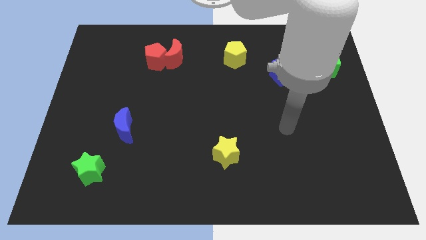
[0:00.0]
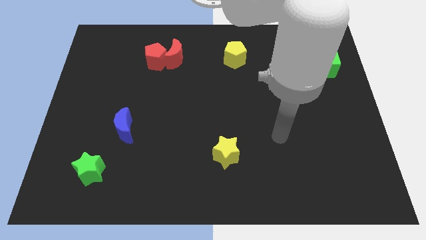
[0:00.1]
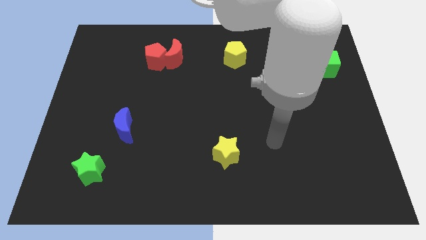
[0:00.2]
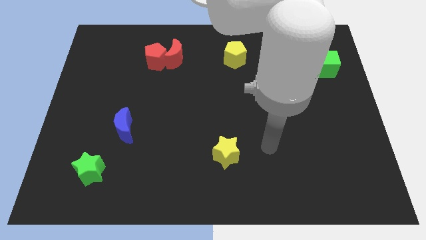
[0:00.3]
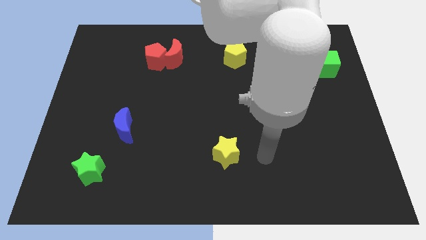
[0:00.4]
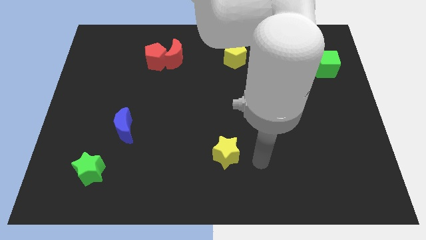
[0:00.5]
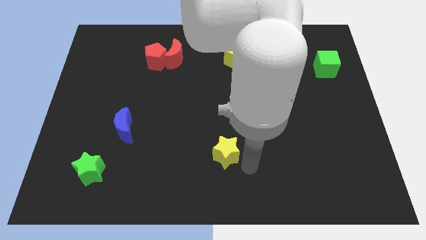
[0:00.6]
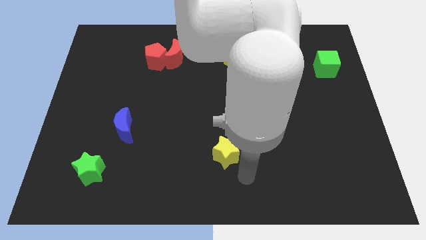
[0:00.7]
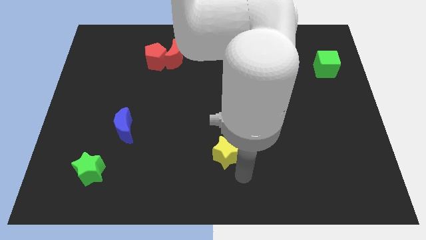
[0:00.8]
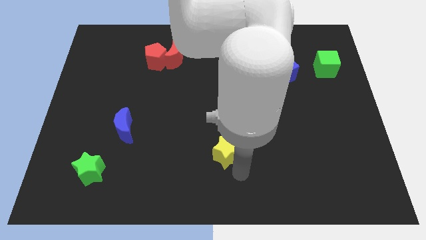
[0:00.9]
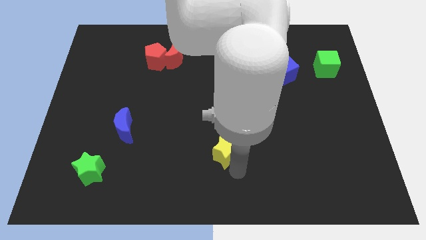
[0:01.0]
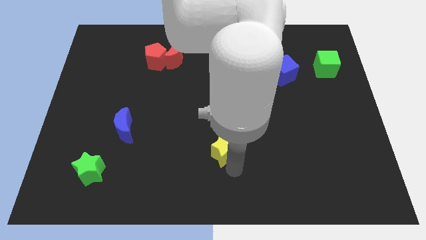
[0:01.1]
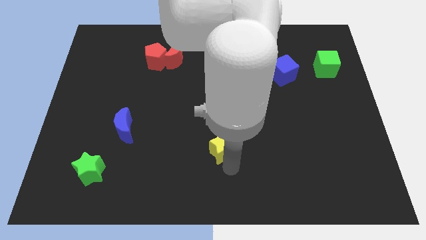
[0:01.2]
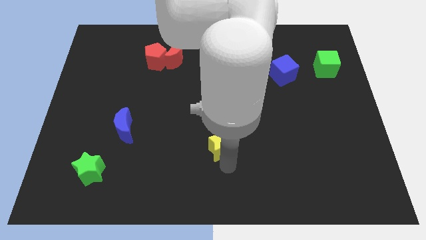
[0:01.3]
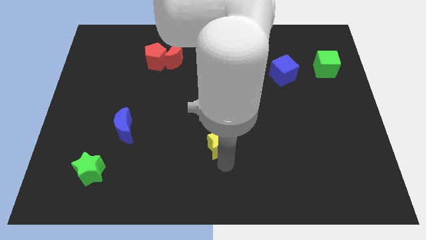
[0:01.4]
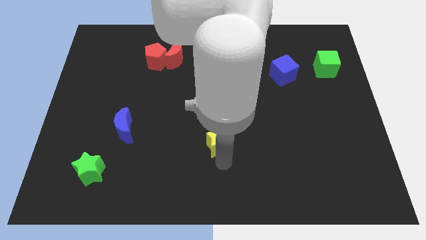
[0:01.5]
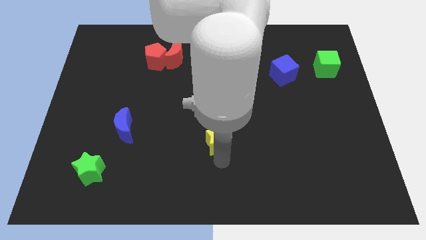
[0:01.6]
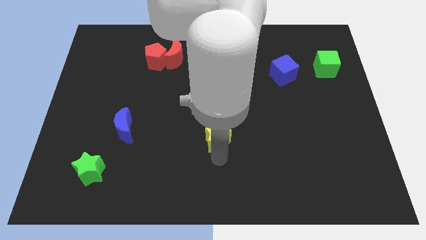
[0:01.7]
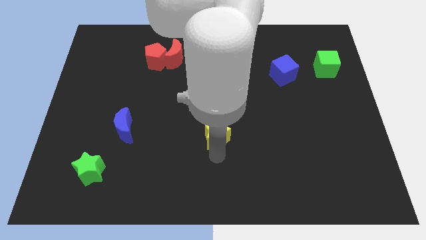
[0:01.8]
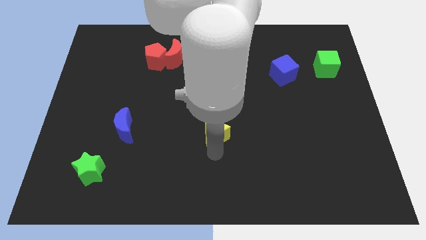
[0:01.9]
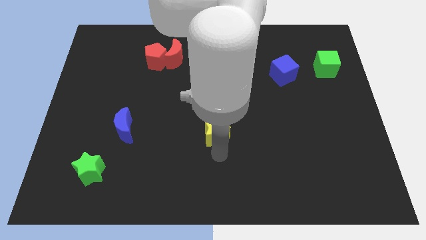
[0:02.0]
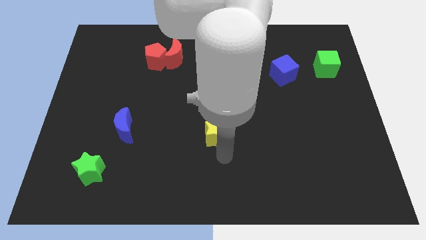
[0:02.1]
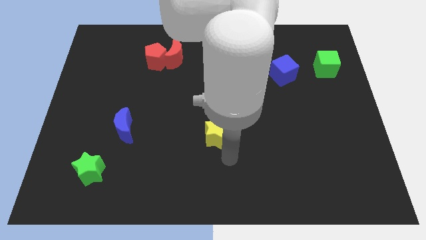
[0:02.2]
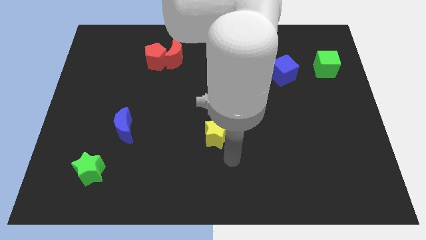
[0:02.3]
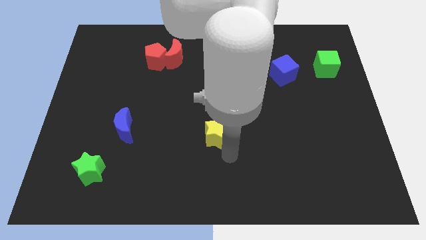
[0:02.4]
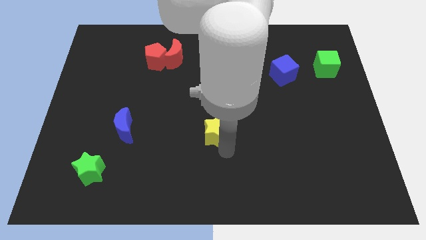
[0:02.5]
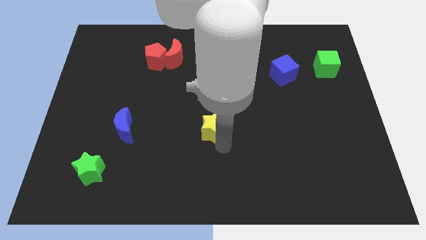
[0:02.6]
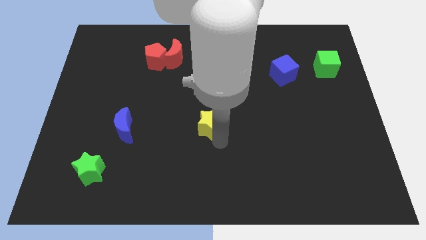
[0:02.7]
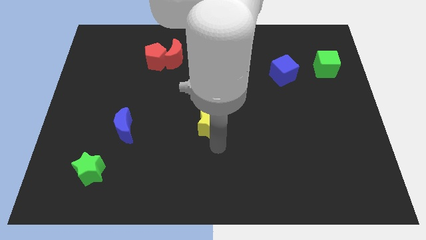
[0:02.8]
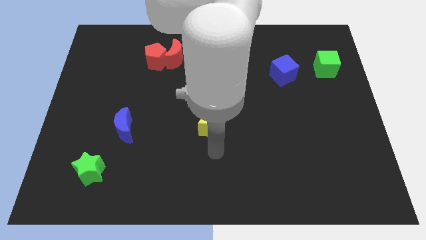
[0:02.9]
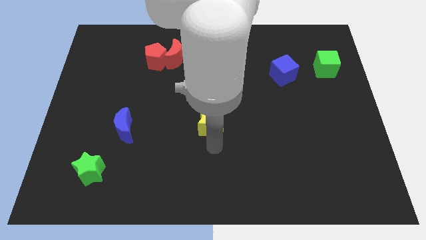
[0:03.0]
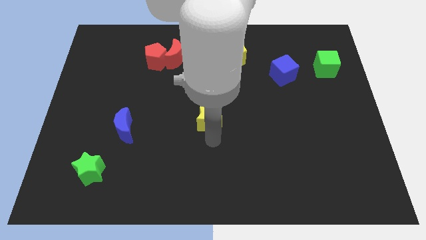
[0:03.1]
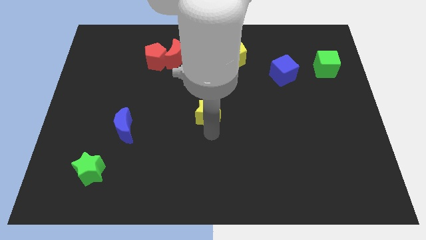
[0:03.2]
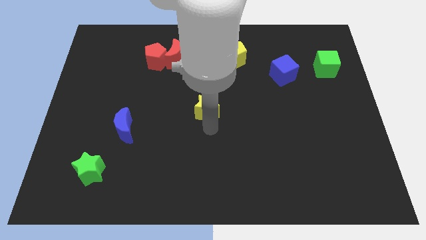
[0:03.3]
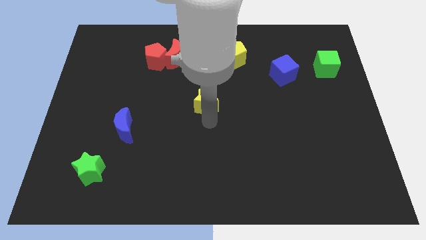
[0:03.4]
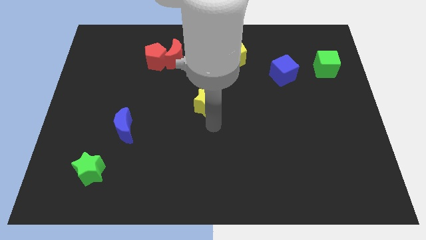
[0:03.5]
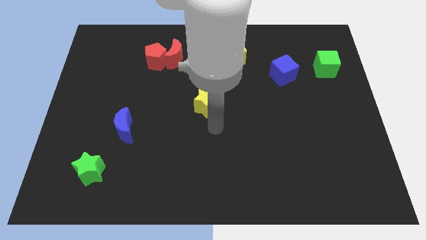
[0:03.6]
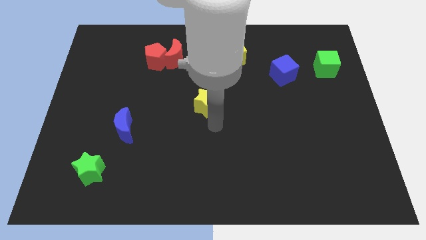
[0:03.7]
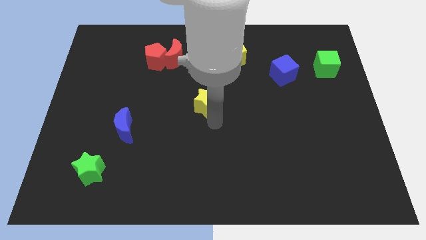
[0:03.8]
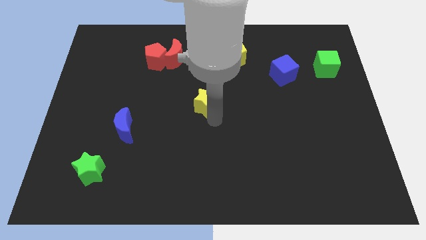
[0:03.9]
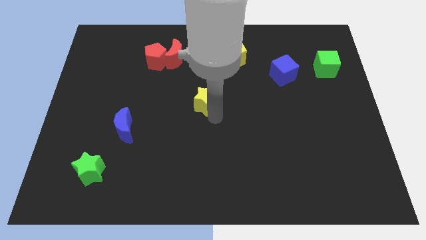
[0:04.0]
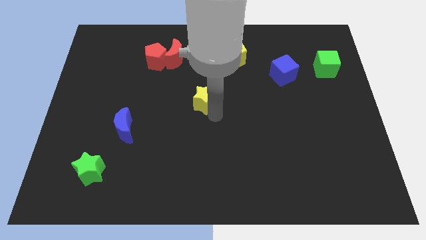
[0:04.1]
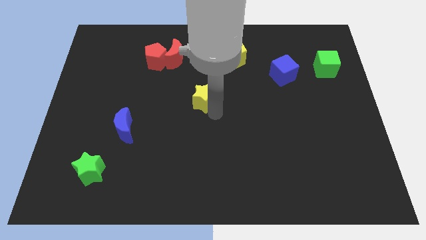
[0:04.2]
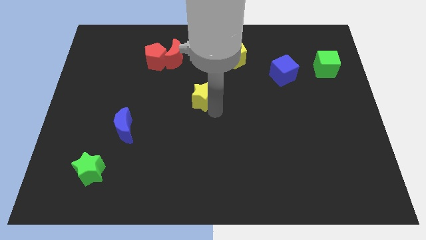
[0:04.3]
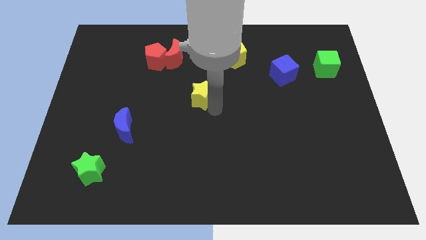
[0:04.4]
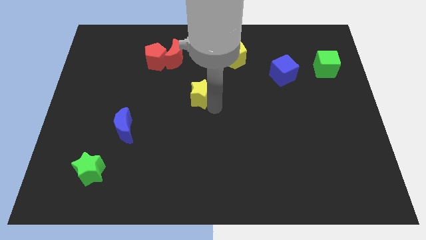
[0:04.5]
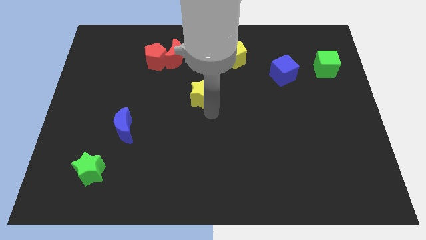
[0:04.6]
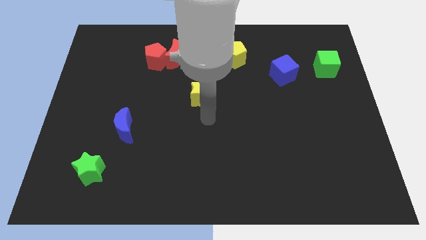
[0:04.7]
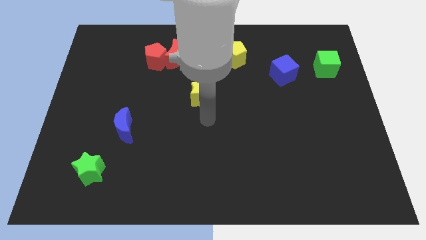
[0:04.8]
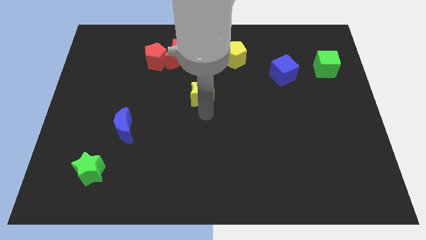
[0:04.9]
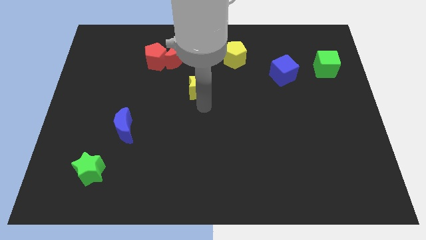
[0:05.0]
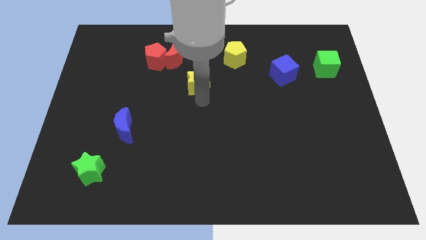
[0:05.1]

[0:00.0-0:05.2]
push the yellow star to the bottom right of the red moon

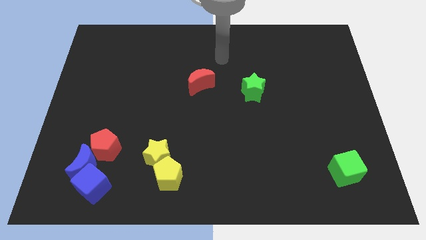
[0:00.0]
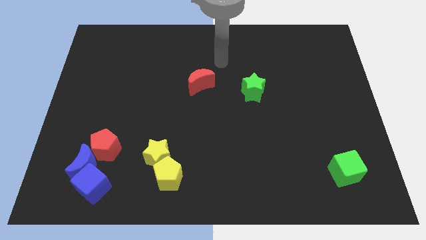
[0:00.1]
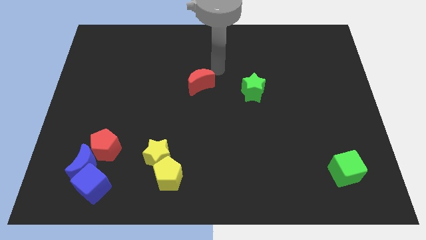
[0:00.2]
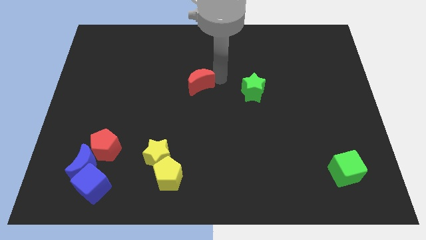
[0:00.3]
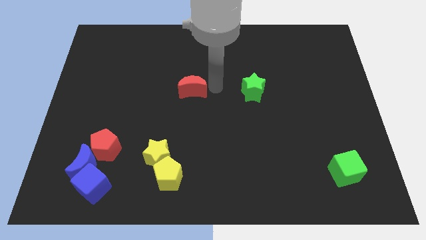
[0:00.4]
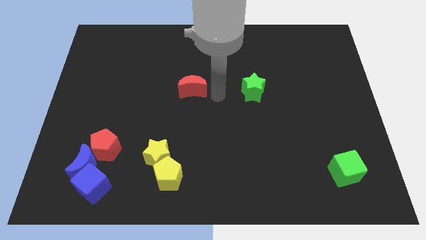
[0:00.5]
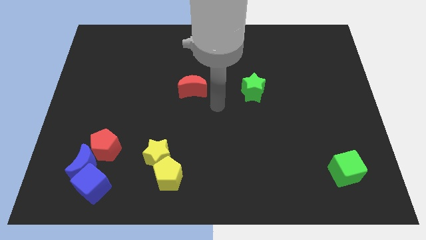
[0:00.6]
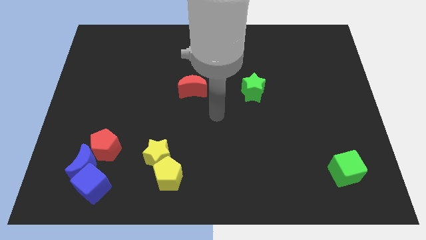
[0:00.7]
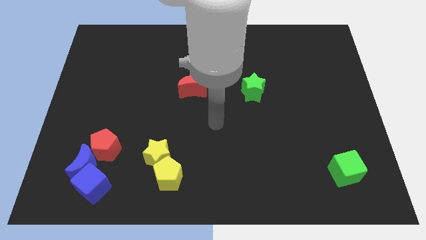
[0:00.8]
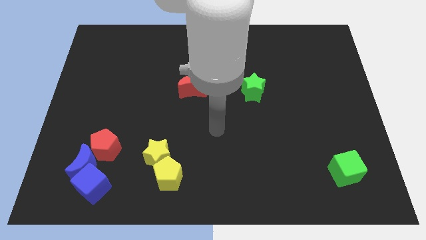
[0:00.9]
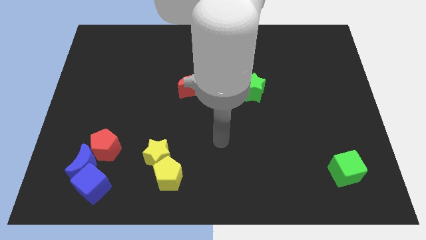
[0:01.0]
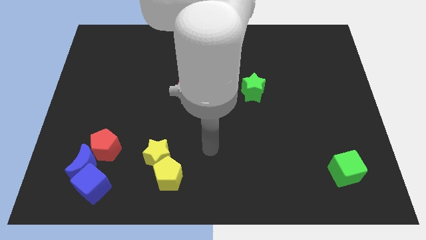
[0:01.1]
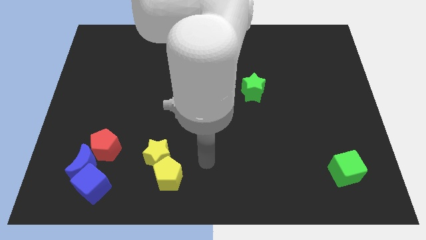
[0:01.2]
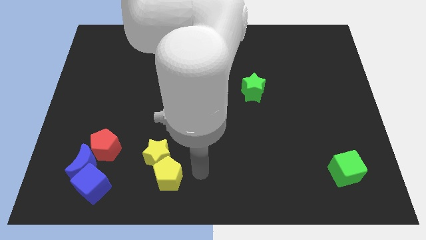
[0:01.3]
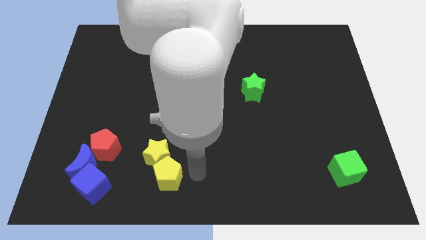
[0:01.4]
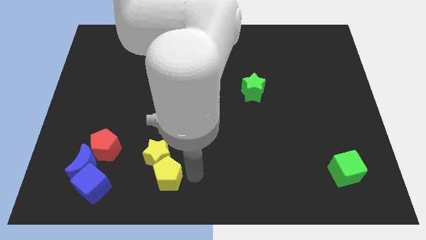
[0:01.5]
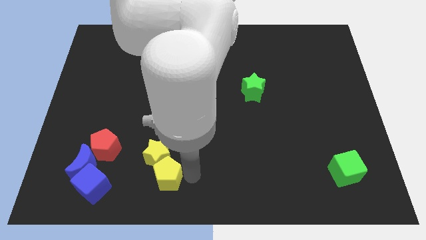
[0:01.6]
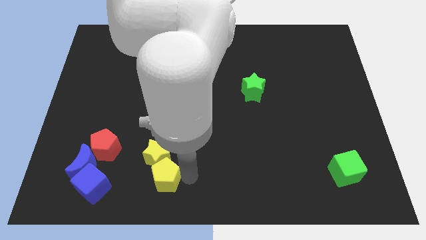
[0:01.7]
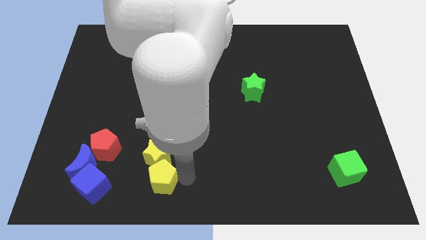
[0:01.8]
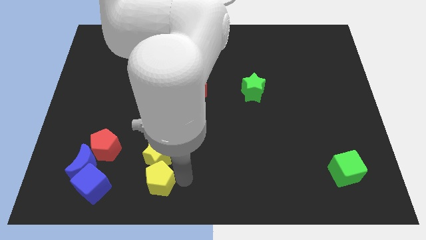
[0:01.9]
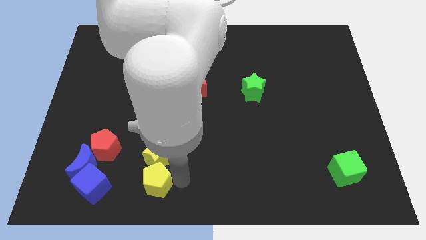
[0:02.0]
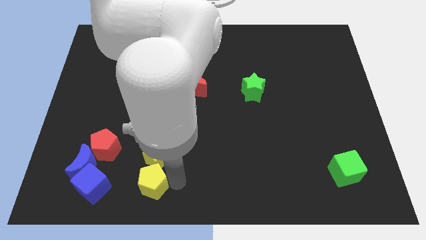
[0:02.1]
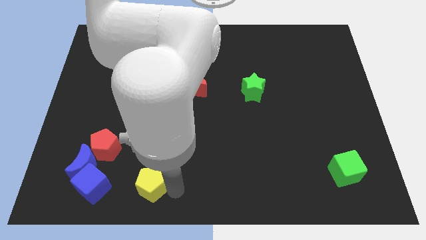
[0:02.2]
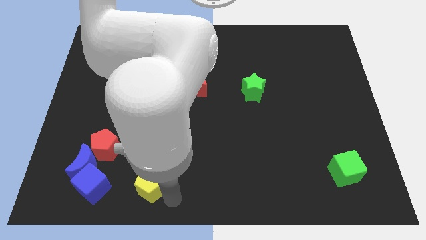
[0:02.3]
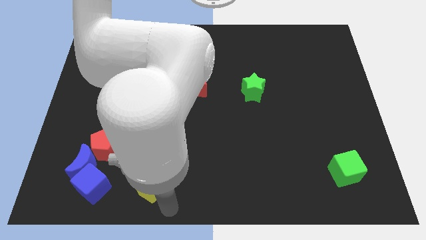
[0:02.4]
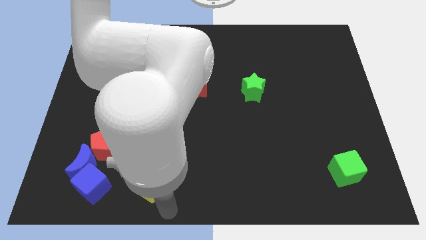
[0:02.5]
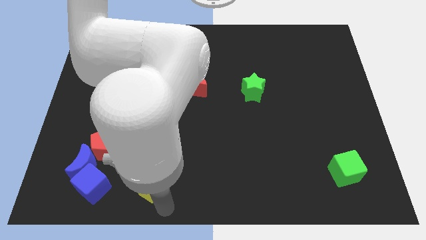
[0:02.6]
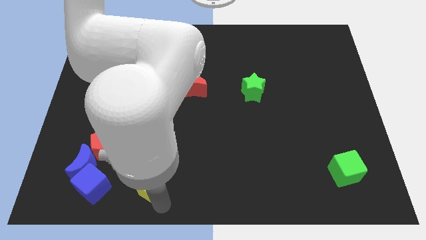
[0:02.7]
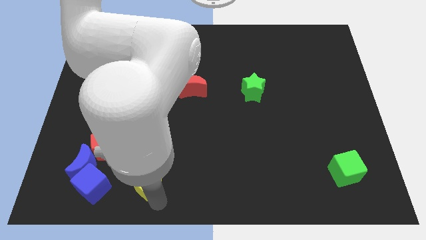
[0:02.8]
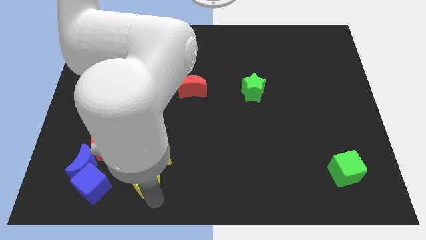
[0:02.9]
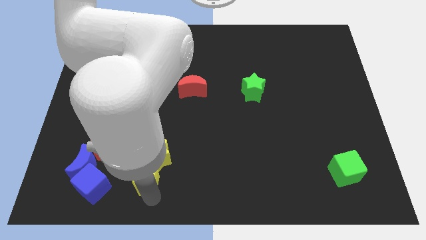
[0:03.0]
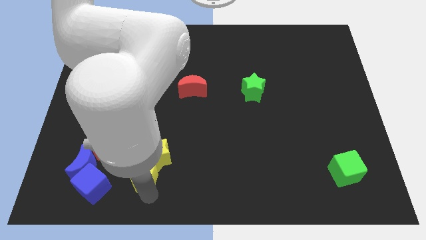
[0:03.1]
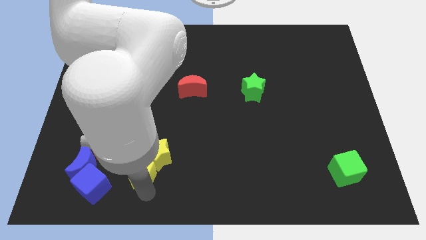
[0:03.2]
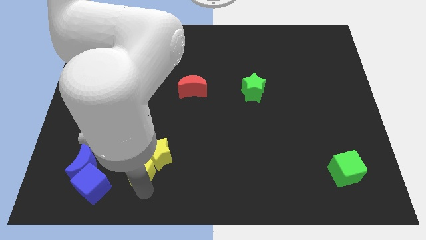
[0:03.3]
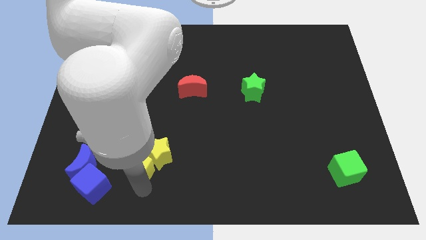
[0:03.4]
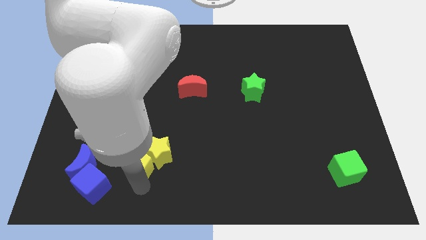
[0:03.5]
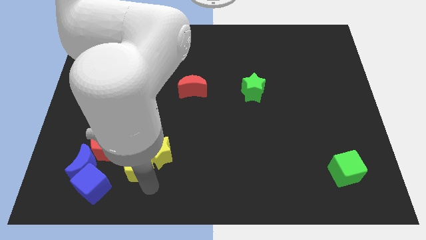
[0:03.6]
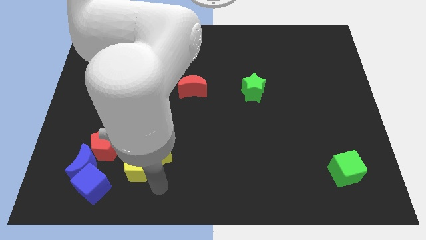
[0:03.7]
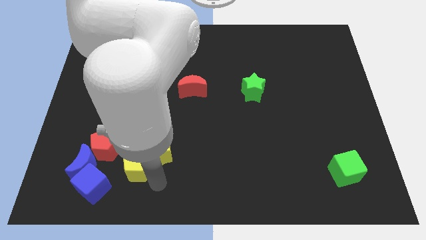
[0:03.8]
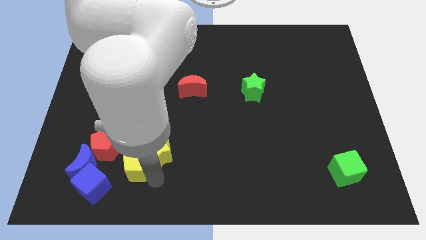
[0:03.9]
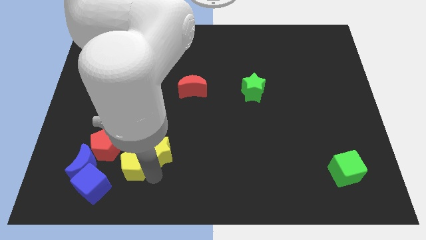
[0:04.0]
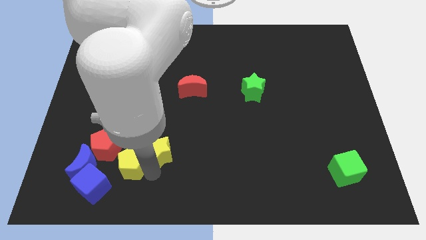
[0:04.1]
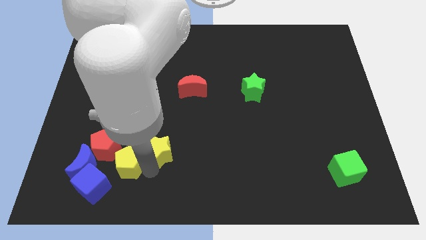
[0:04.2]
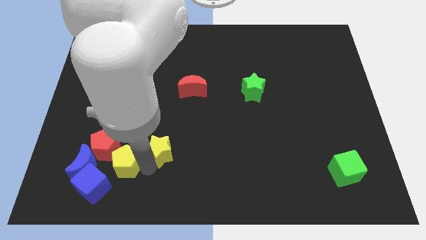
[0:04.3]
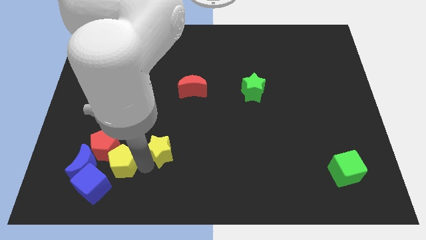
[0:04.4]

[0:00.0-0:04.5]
move the yellow pentagon to the top right of the blue moon
